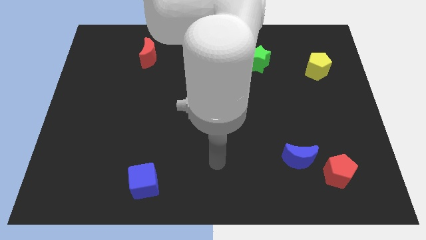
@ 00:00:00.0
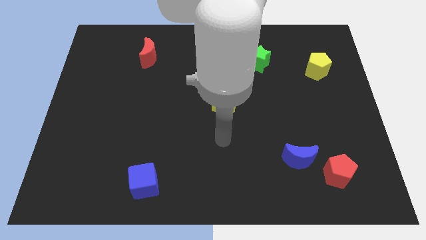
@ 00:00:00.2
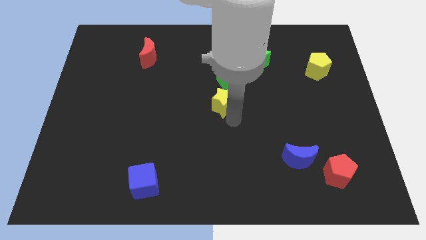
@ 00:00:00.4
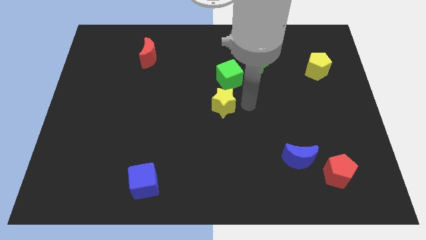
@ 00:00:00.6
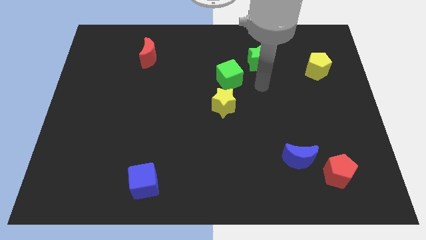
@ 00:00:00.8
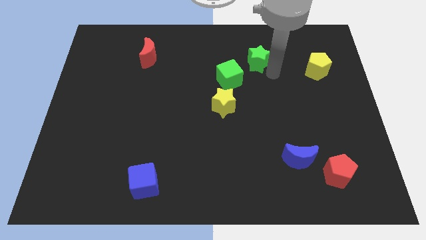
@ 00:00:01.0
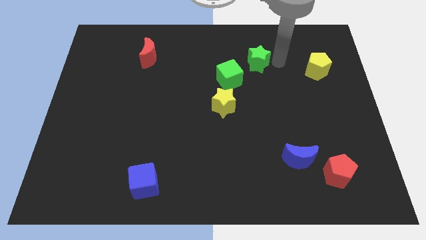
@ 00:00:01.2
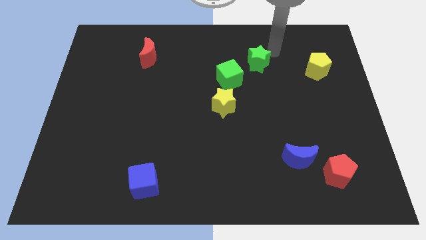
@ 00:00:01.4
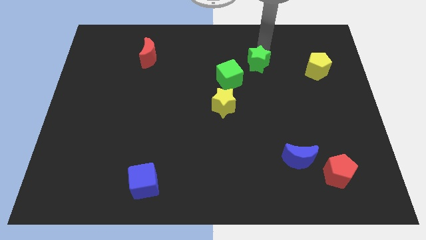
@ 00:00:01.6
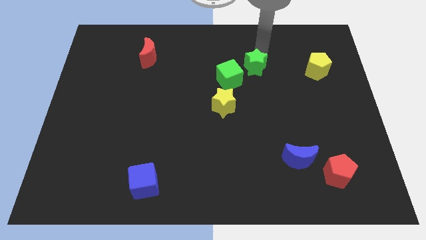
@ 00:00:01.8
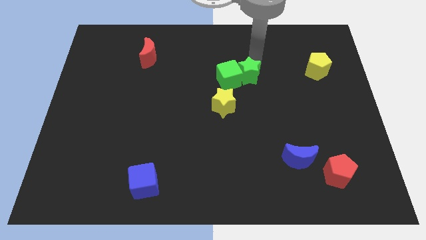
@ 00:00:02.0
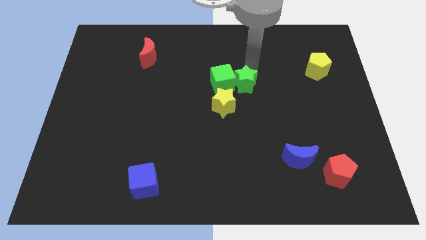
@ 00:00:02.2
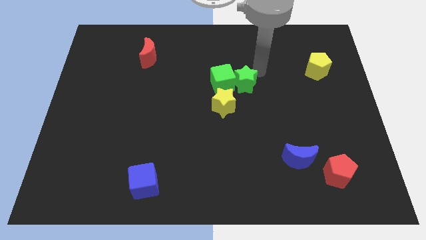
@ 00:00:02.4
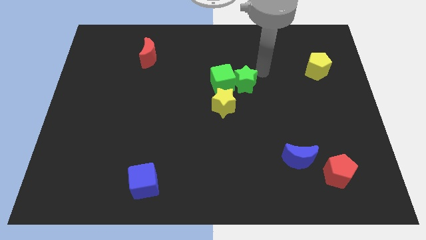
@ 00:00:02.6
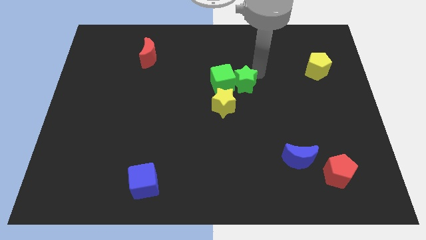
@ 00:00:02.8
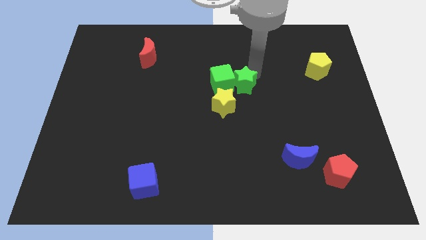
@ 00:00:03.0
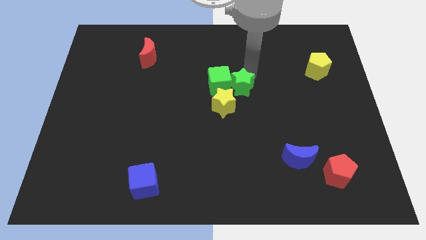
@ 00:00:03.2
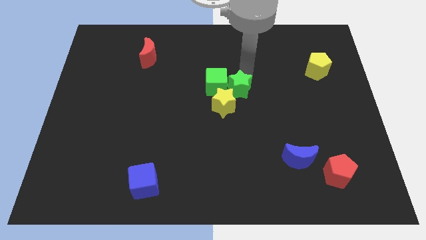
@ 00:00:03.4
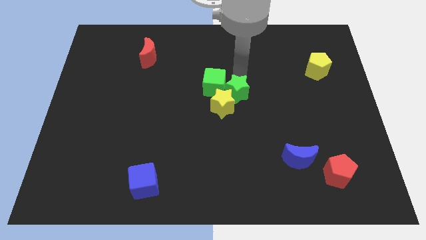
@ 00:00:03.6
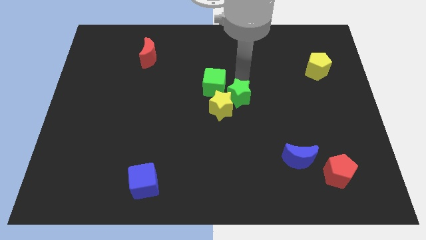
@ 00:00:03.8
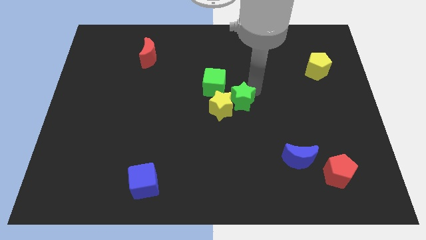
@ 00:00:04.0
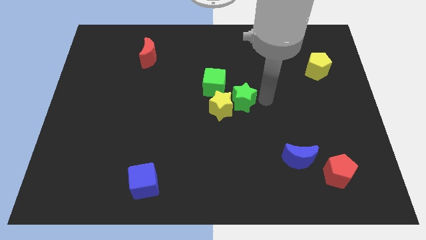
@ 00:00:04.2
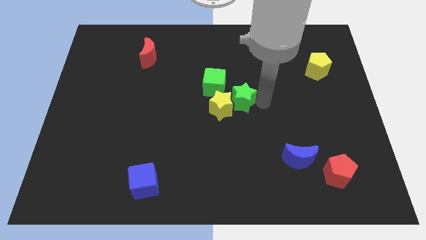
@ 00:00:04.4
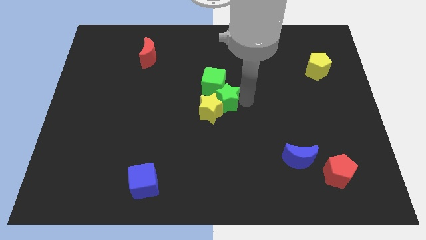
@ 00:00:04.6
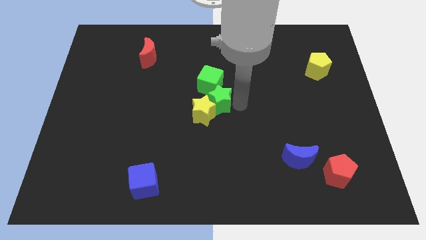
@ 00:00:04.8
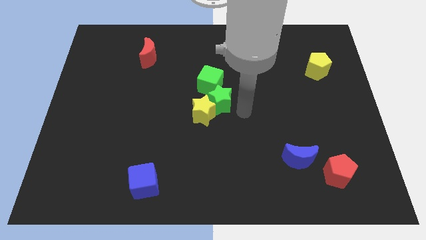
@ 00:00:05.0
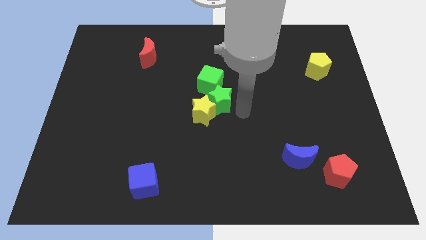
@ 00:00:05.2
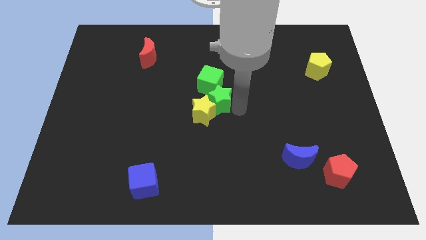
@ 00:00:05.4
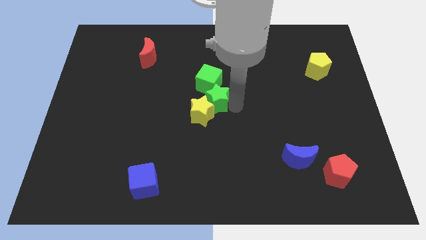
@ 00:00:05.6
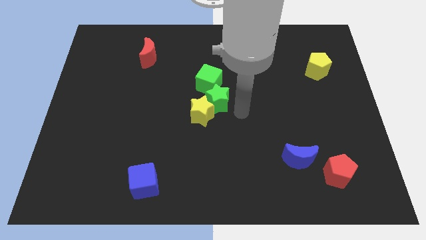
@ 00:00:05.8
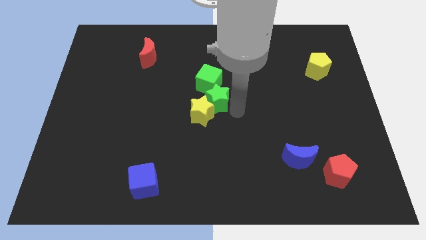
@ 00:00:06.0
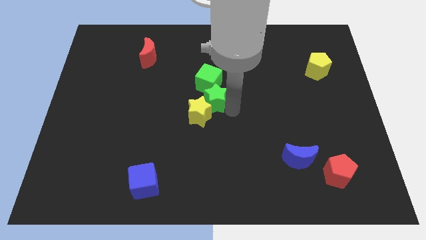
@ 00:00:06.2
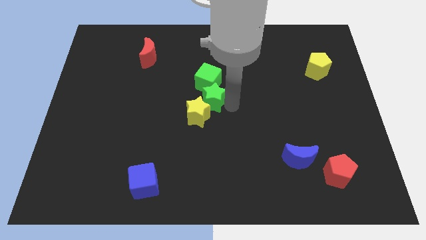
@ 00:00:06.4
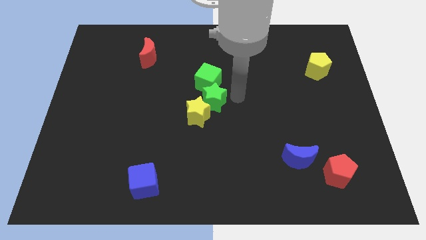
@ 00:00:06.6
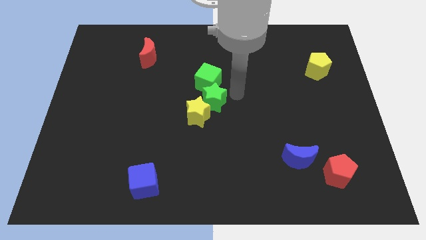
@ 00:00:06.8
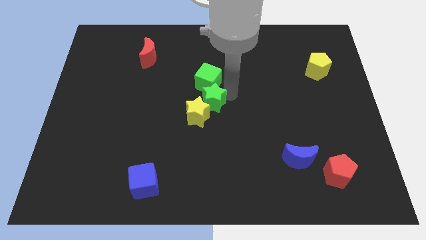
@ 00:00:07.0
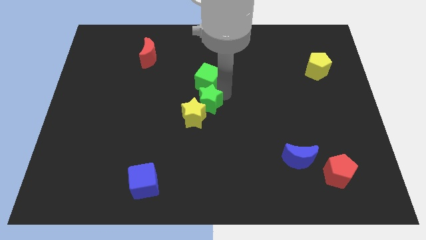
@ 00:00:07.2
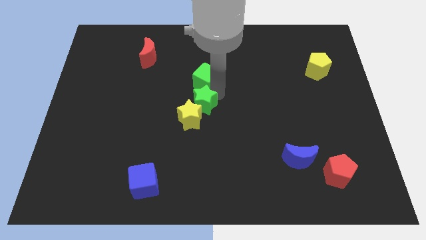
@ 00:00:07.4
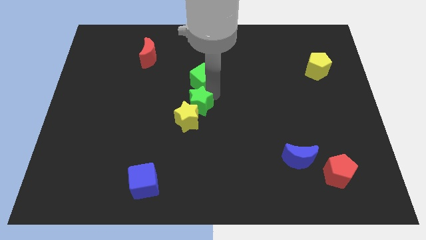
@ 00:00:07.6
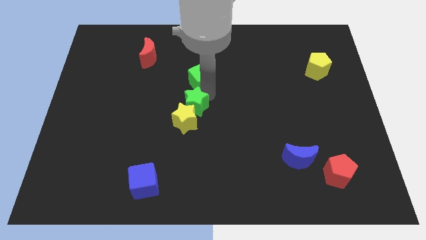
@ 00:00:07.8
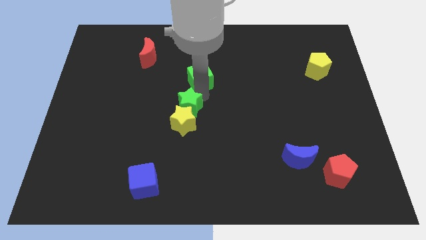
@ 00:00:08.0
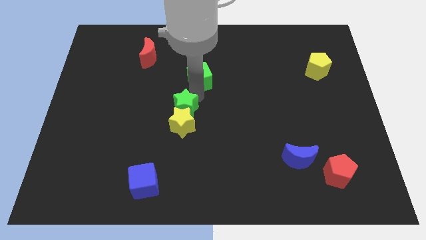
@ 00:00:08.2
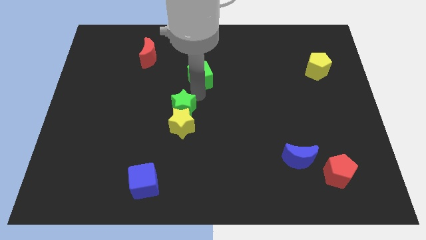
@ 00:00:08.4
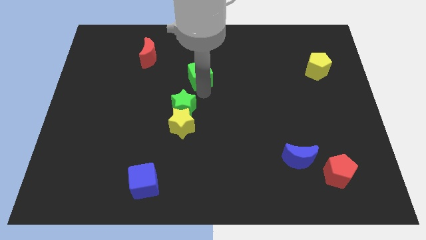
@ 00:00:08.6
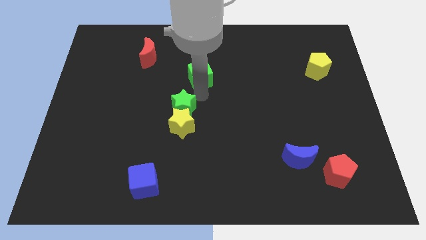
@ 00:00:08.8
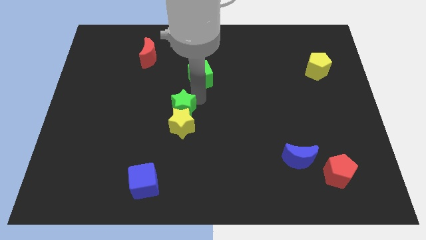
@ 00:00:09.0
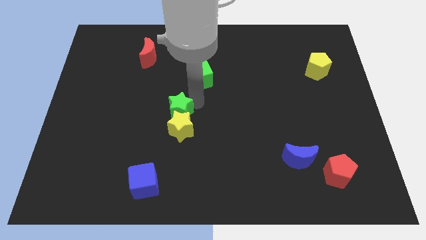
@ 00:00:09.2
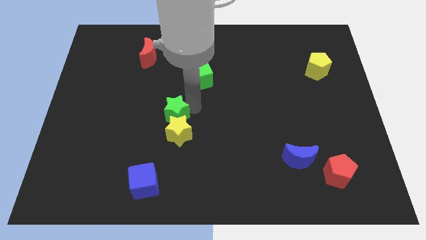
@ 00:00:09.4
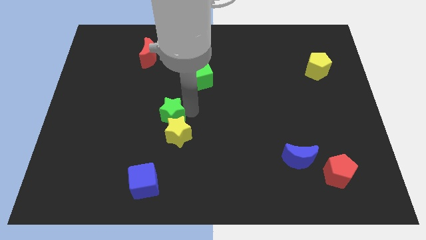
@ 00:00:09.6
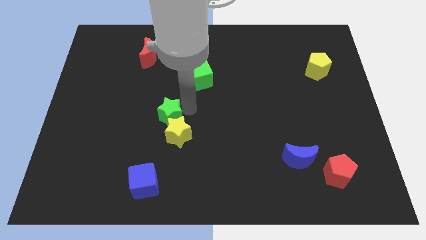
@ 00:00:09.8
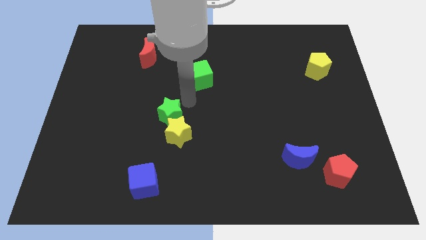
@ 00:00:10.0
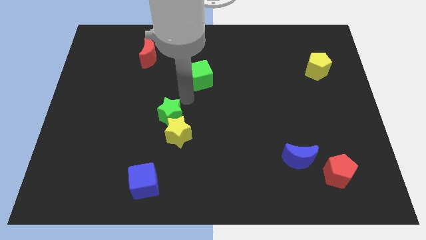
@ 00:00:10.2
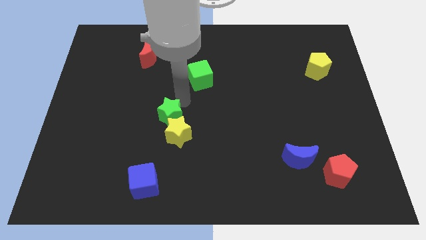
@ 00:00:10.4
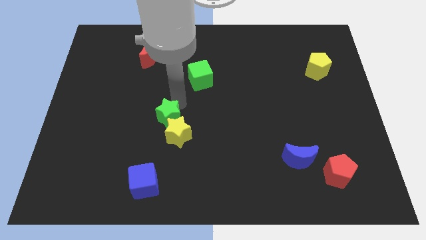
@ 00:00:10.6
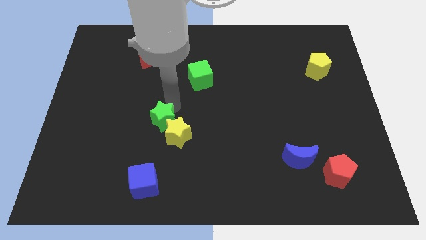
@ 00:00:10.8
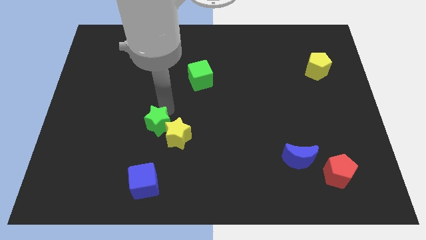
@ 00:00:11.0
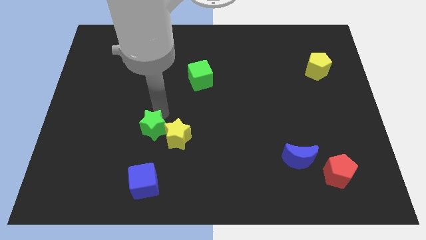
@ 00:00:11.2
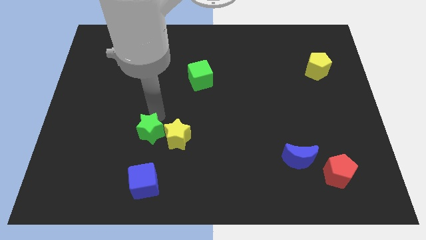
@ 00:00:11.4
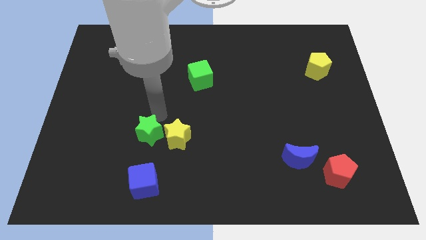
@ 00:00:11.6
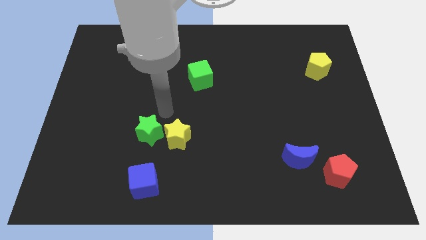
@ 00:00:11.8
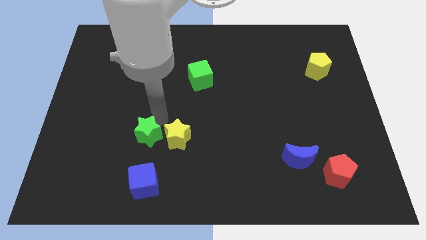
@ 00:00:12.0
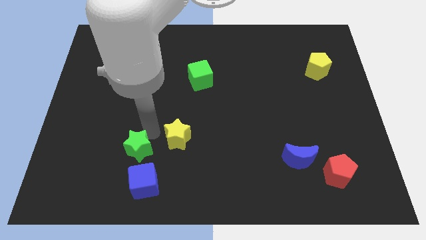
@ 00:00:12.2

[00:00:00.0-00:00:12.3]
slide the green star to the top left side of the blue cube
